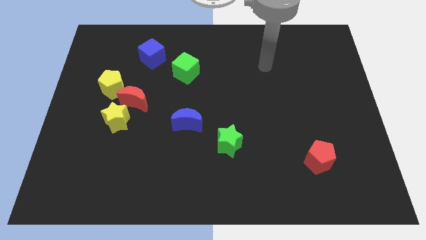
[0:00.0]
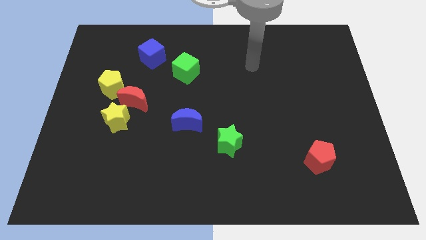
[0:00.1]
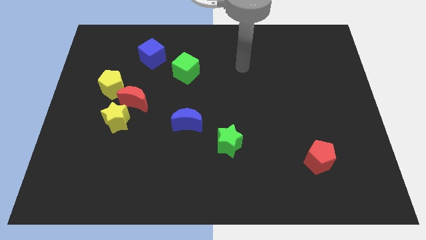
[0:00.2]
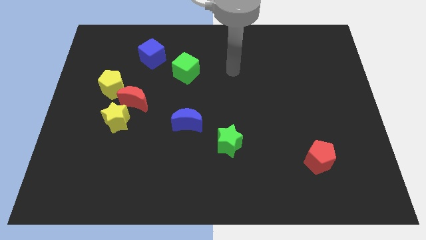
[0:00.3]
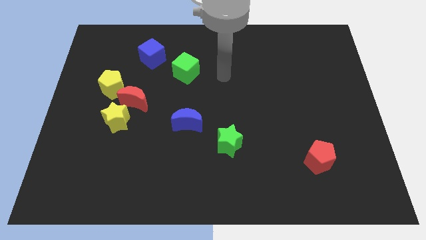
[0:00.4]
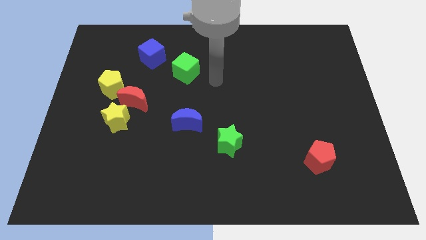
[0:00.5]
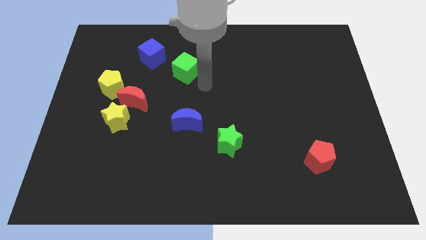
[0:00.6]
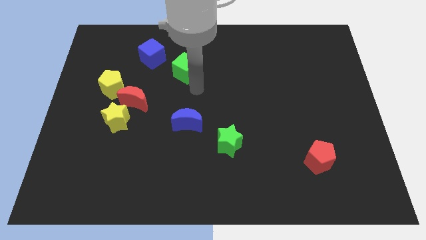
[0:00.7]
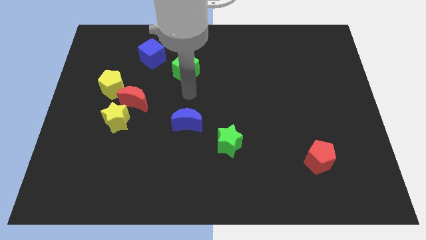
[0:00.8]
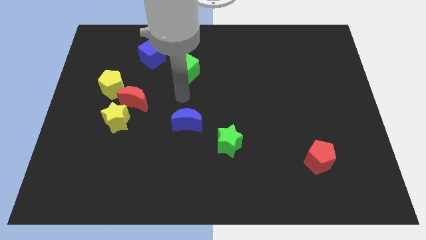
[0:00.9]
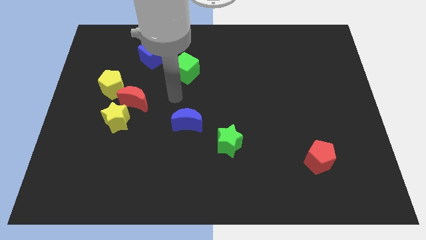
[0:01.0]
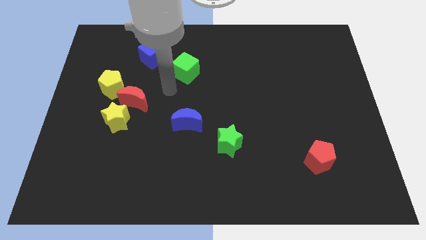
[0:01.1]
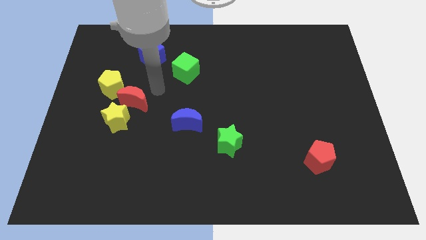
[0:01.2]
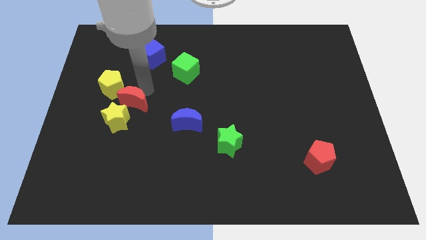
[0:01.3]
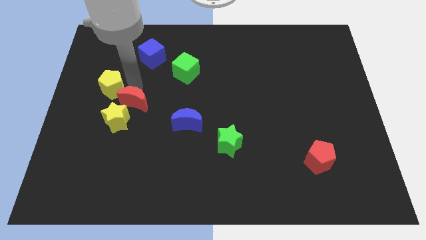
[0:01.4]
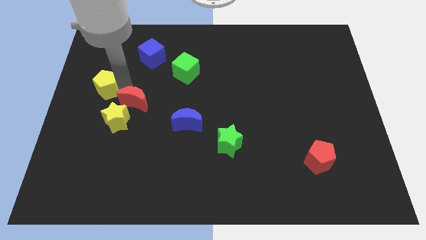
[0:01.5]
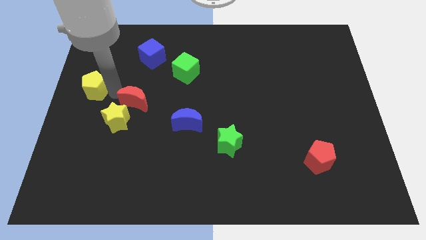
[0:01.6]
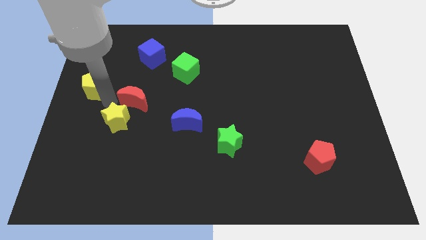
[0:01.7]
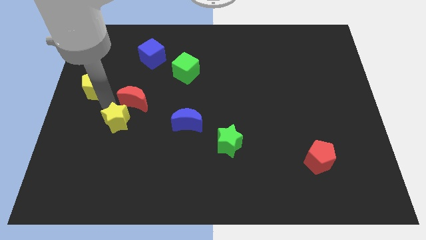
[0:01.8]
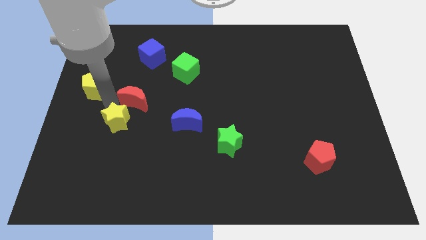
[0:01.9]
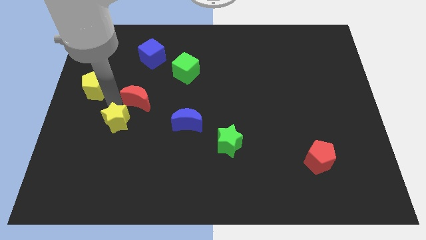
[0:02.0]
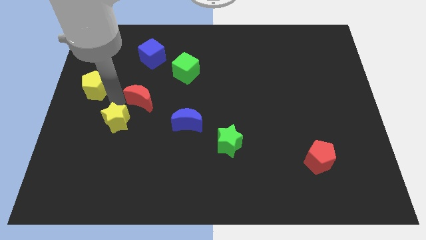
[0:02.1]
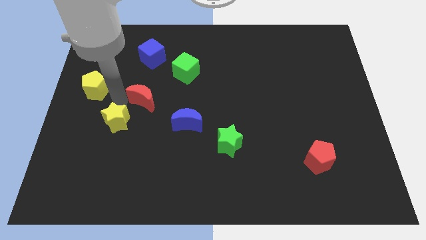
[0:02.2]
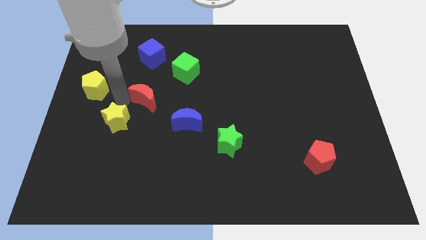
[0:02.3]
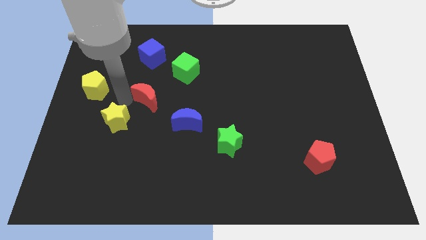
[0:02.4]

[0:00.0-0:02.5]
move the red moon away from the yellow star and yellow pentagon

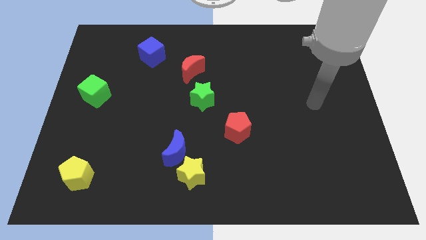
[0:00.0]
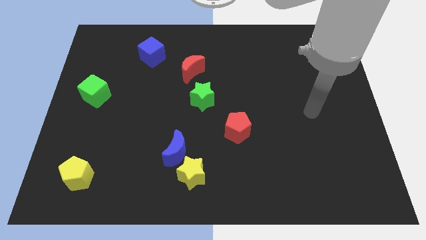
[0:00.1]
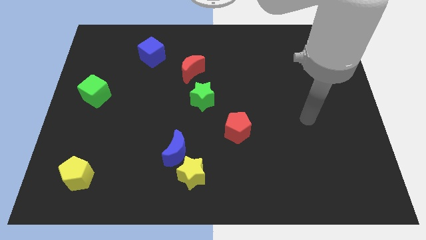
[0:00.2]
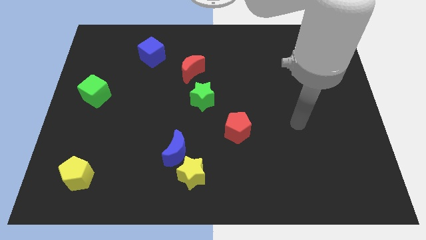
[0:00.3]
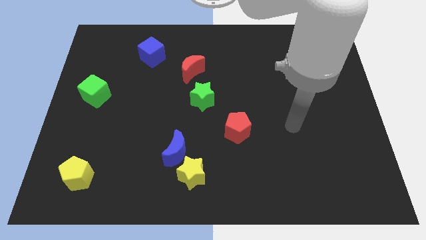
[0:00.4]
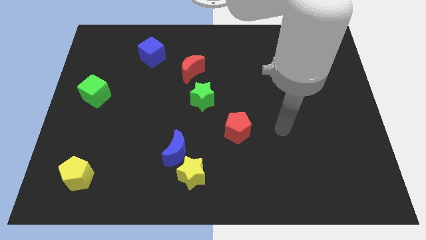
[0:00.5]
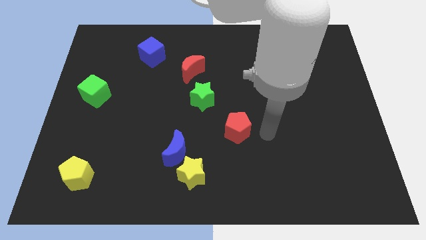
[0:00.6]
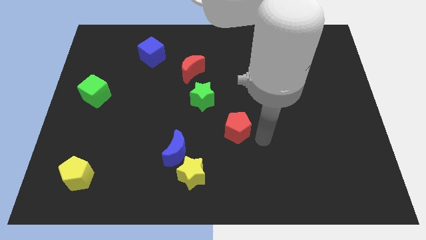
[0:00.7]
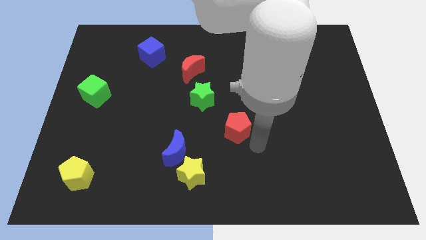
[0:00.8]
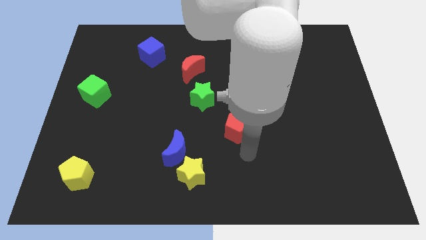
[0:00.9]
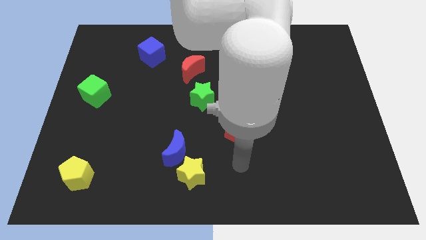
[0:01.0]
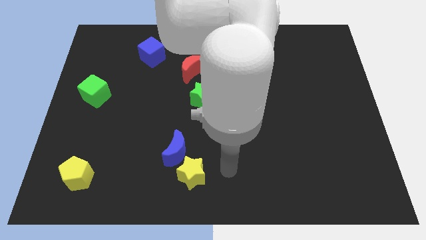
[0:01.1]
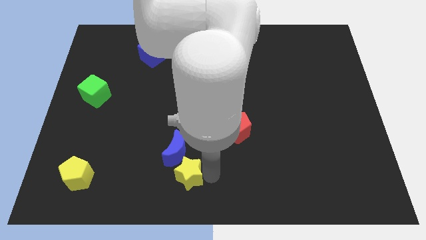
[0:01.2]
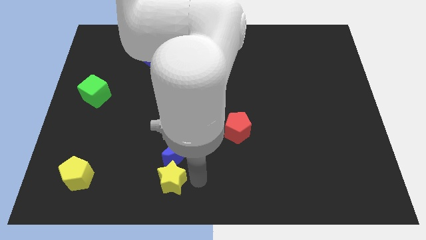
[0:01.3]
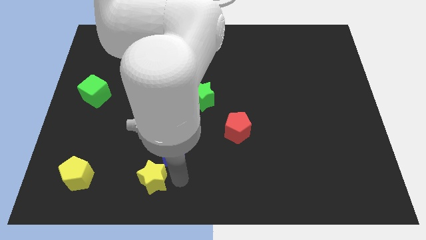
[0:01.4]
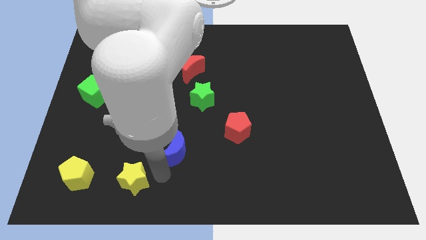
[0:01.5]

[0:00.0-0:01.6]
pull the blue moon apart from the yellow star

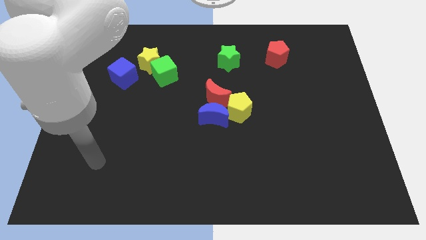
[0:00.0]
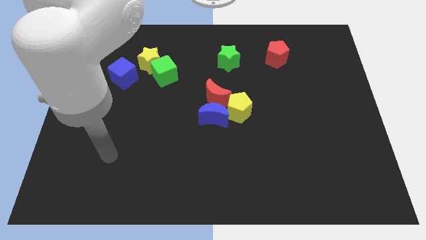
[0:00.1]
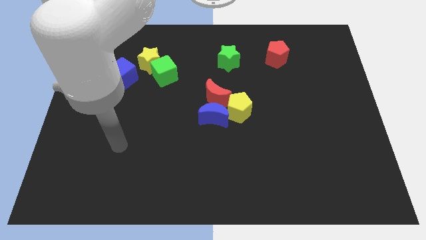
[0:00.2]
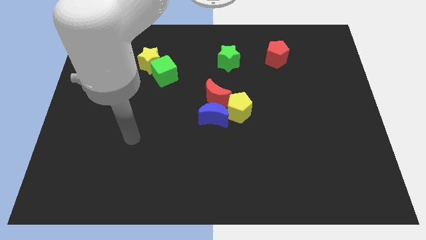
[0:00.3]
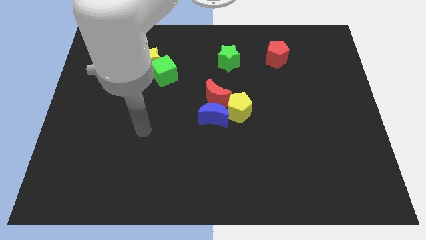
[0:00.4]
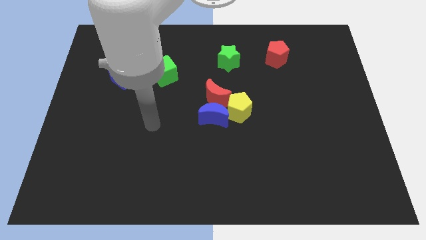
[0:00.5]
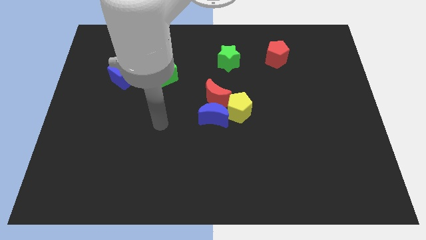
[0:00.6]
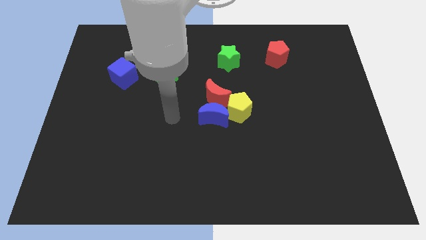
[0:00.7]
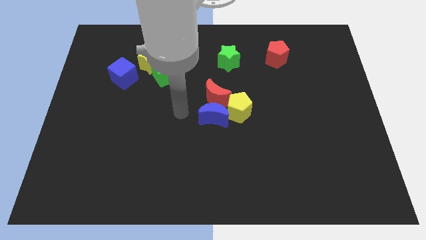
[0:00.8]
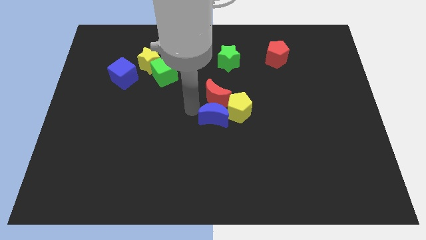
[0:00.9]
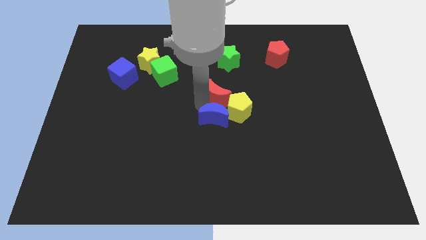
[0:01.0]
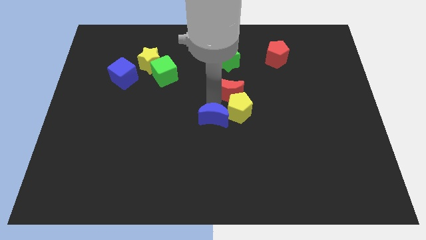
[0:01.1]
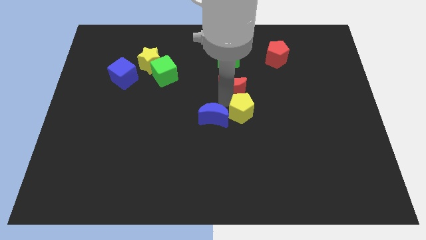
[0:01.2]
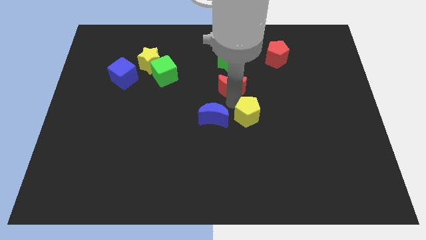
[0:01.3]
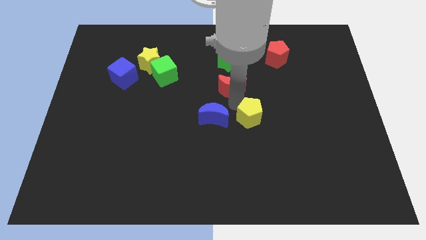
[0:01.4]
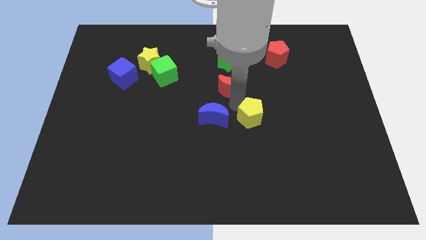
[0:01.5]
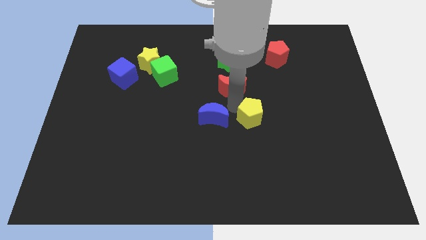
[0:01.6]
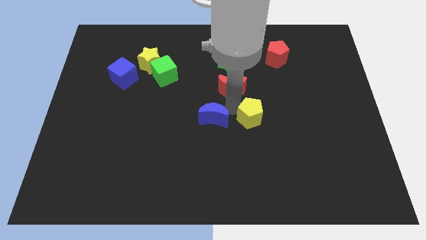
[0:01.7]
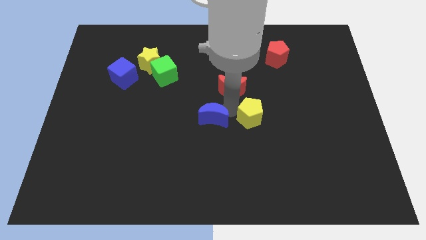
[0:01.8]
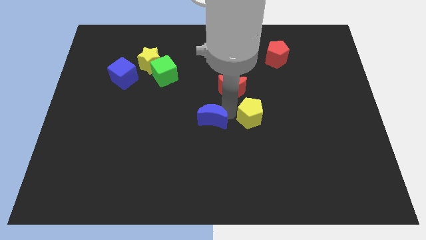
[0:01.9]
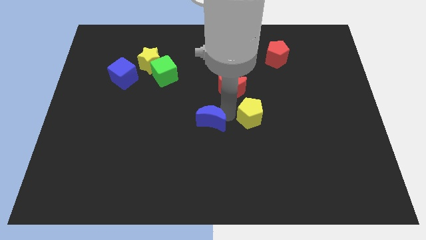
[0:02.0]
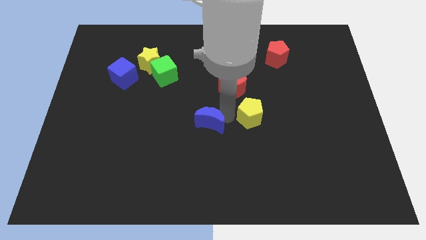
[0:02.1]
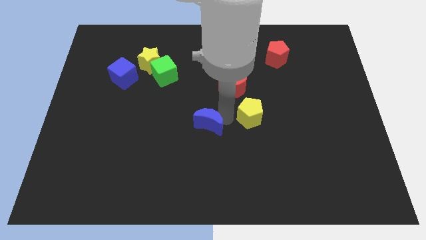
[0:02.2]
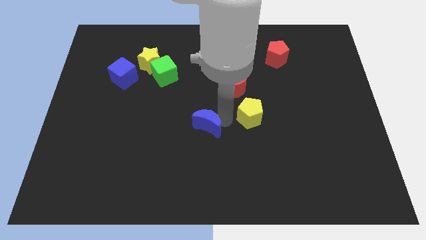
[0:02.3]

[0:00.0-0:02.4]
separate the blue moon from the red moon and yellow pentagon

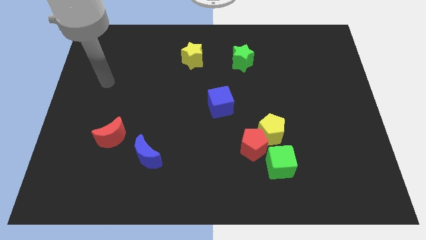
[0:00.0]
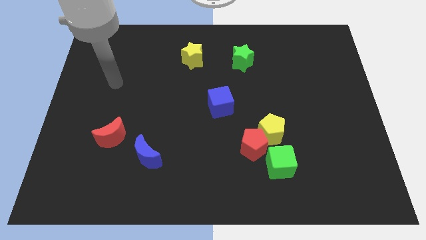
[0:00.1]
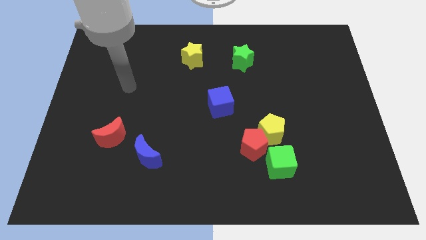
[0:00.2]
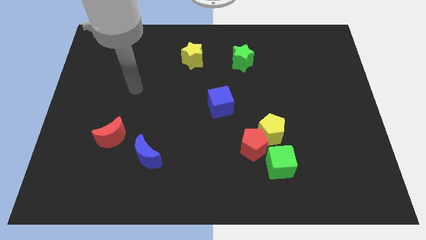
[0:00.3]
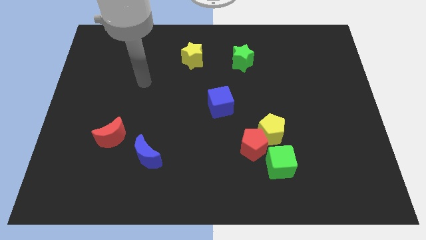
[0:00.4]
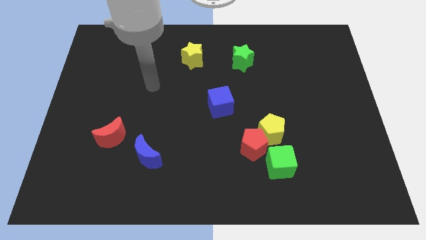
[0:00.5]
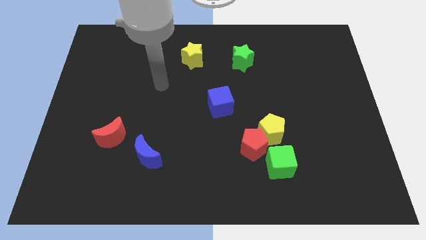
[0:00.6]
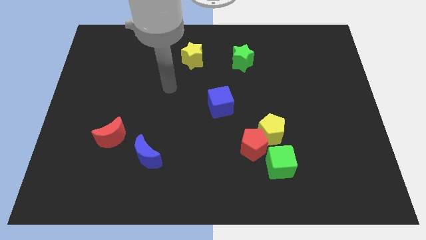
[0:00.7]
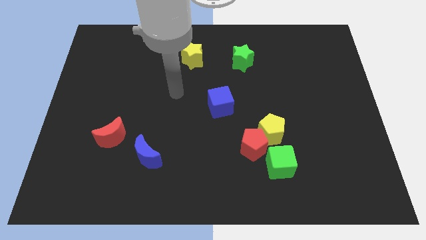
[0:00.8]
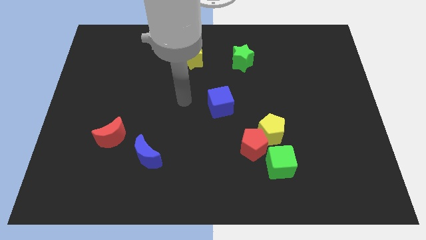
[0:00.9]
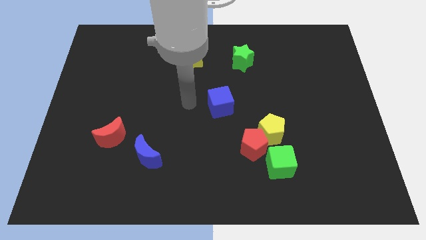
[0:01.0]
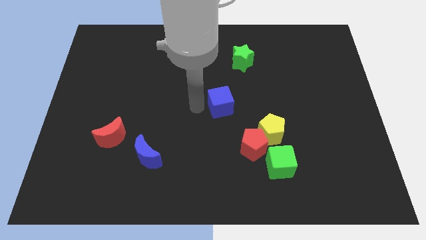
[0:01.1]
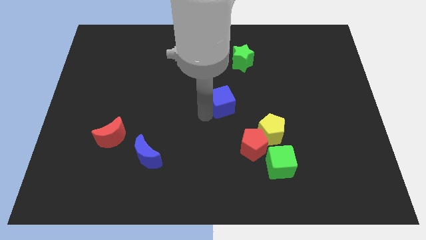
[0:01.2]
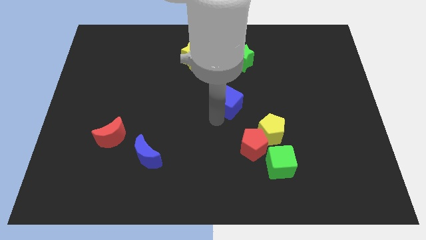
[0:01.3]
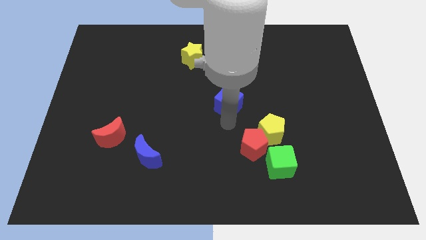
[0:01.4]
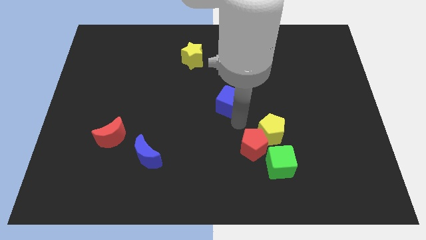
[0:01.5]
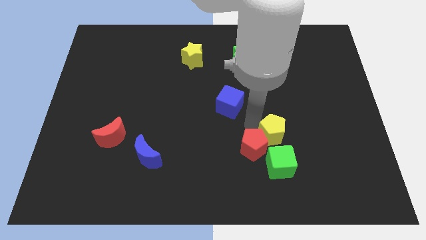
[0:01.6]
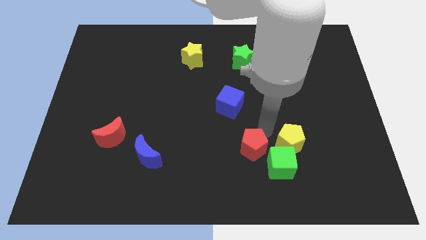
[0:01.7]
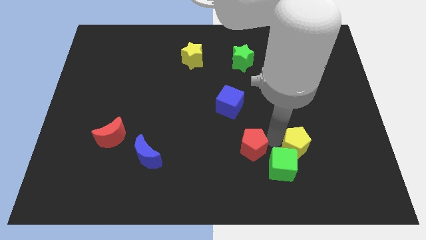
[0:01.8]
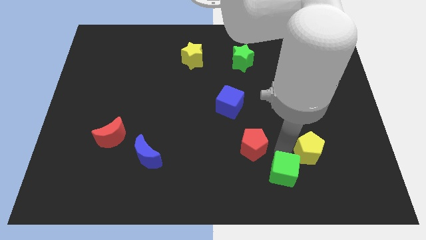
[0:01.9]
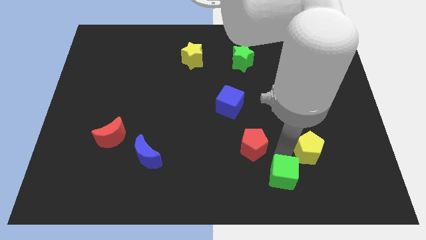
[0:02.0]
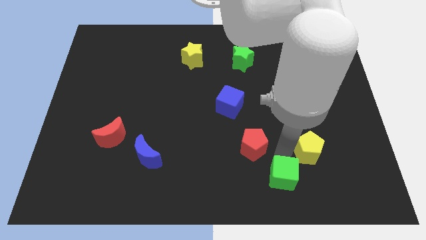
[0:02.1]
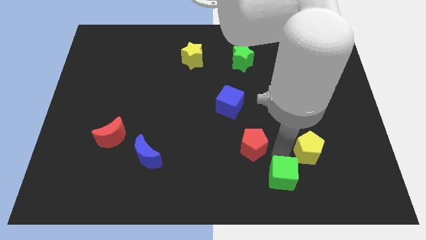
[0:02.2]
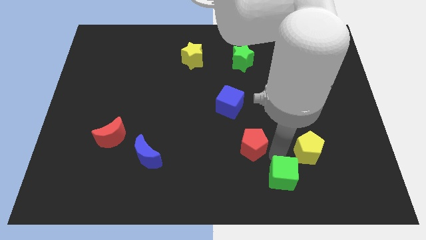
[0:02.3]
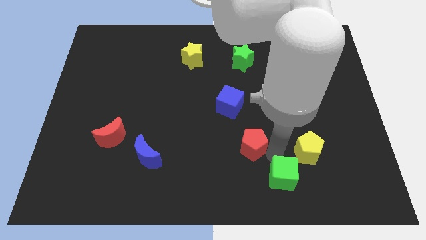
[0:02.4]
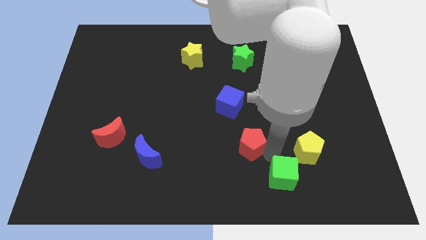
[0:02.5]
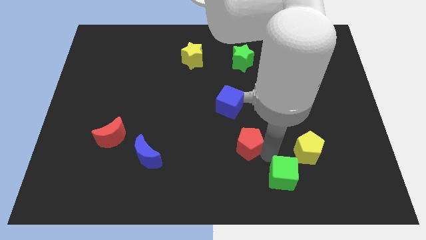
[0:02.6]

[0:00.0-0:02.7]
pull the red pentagon apart from the yellow pentagon and green cube
